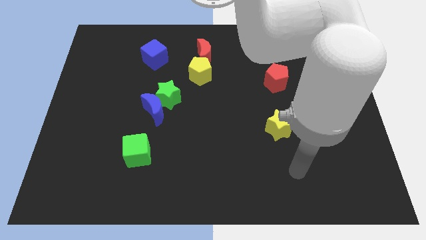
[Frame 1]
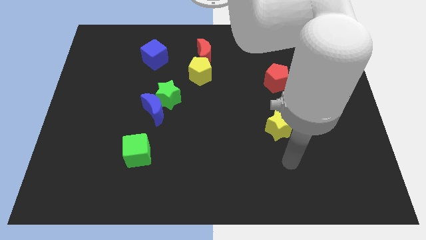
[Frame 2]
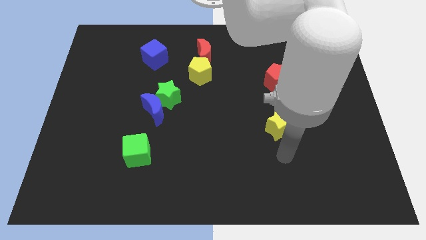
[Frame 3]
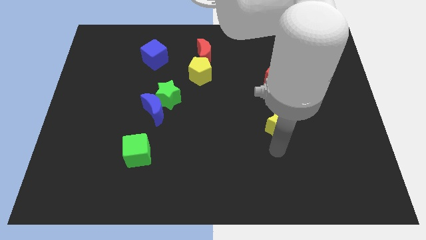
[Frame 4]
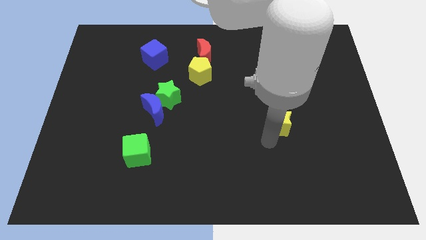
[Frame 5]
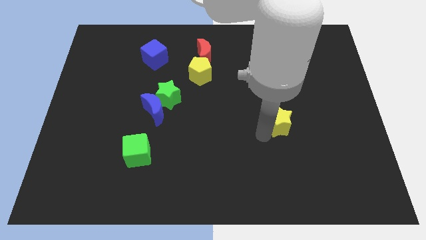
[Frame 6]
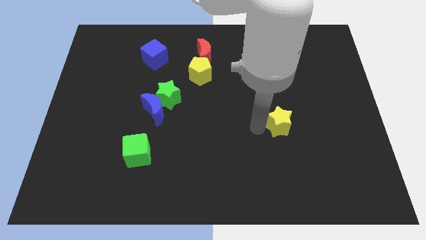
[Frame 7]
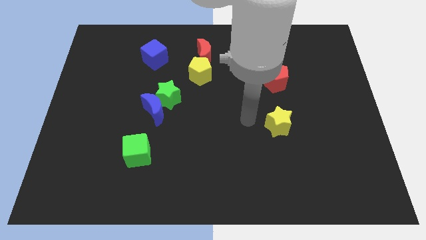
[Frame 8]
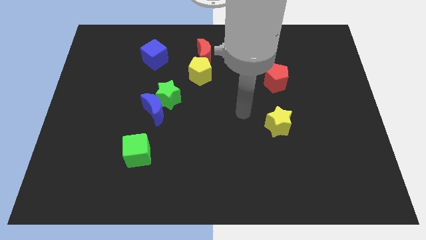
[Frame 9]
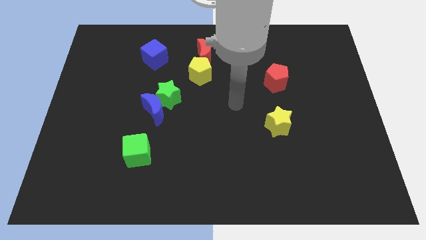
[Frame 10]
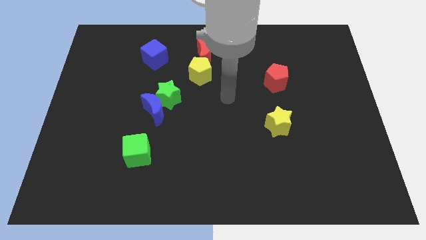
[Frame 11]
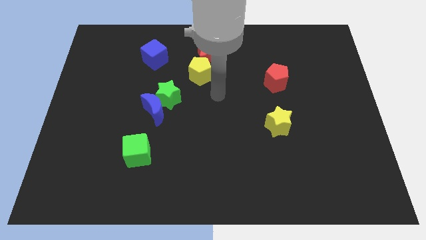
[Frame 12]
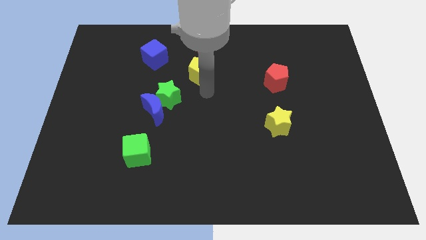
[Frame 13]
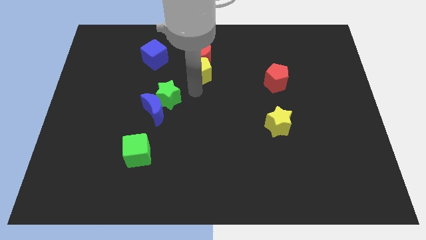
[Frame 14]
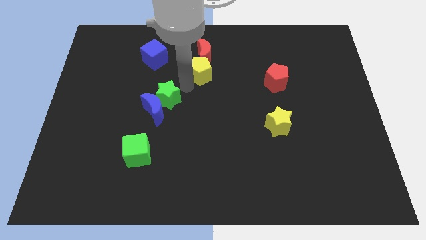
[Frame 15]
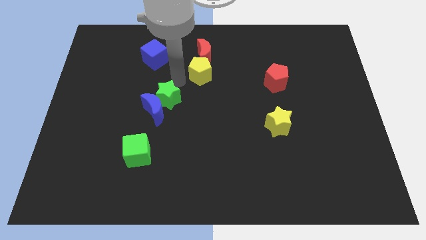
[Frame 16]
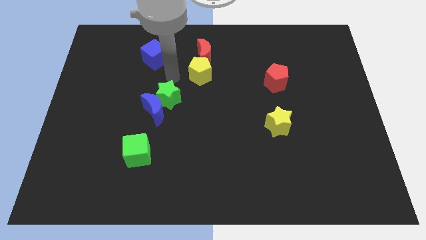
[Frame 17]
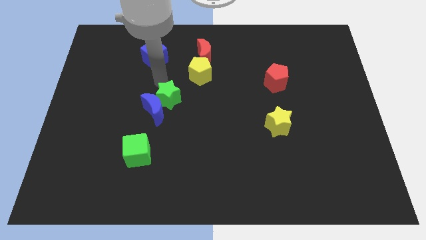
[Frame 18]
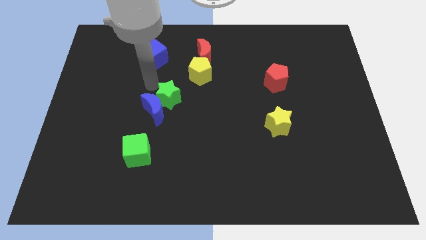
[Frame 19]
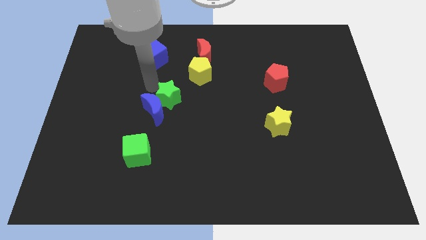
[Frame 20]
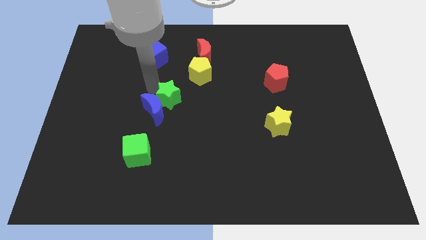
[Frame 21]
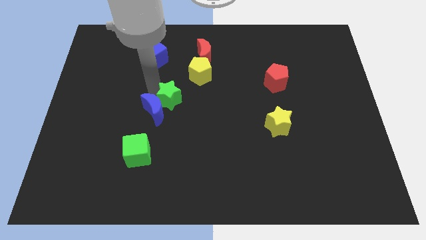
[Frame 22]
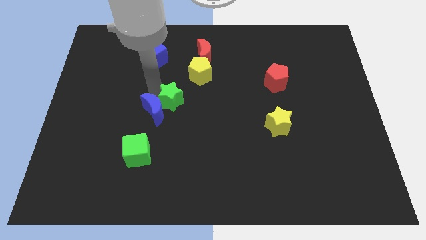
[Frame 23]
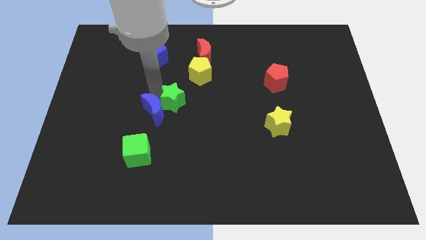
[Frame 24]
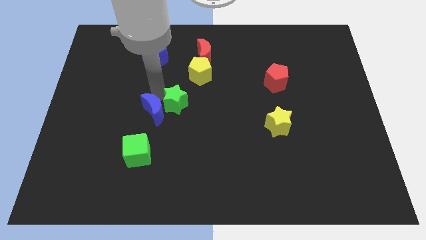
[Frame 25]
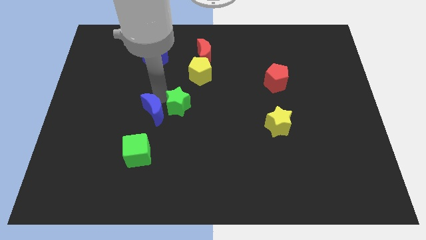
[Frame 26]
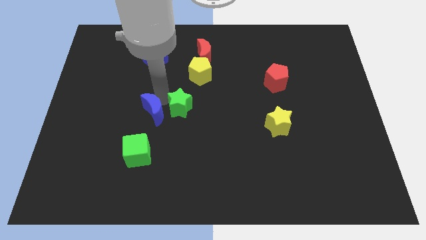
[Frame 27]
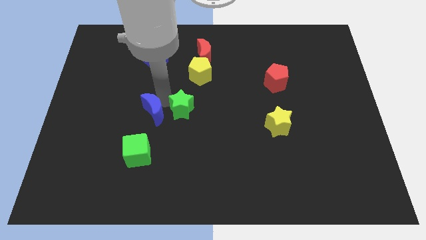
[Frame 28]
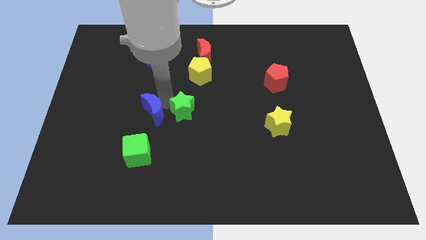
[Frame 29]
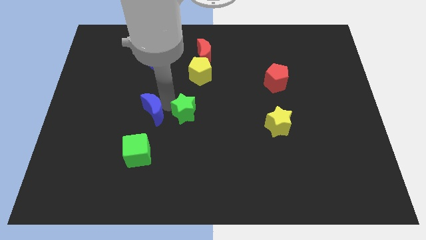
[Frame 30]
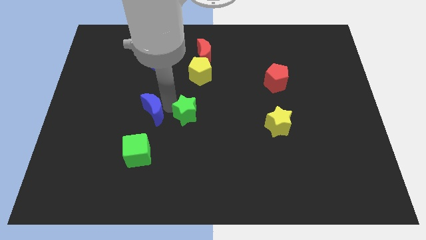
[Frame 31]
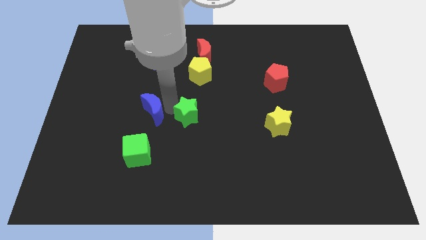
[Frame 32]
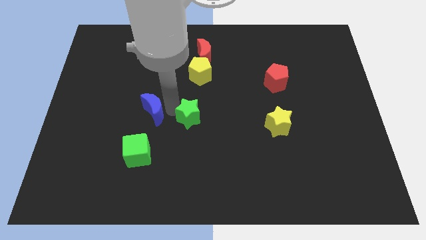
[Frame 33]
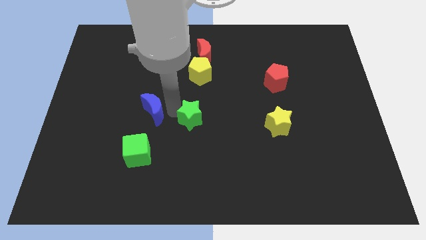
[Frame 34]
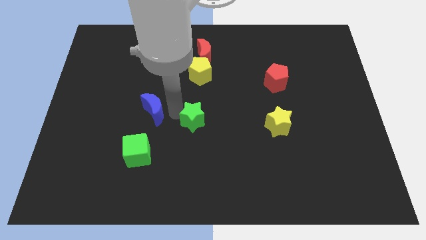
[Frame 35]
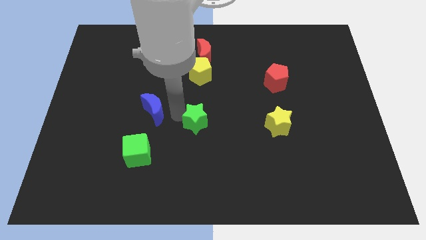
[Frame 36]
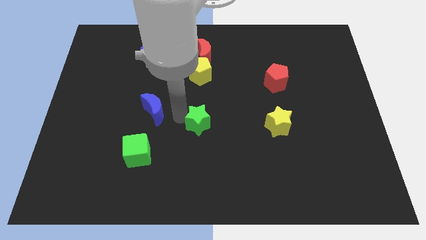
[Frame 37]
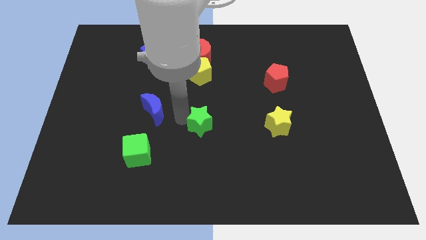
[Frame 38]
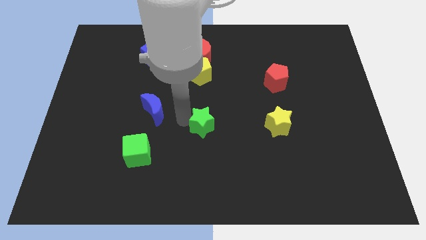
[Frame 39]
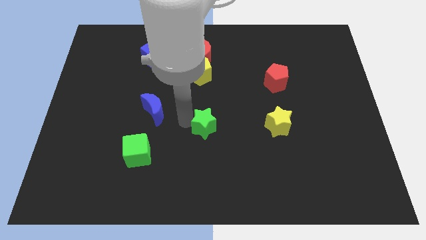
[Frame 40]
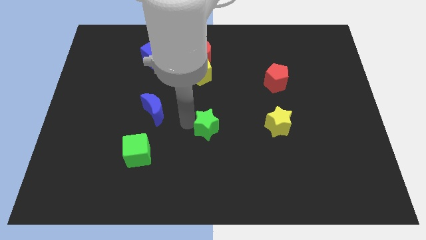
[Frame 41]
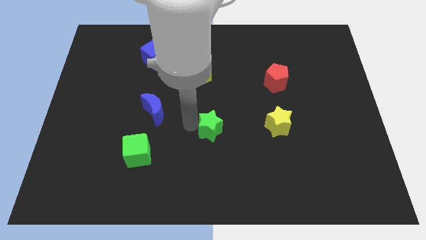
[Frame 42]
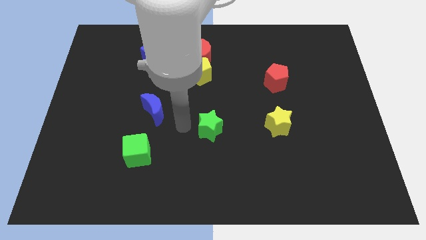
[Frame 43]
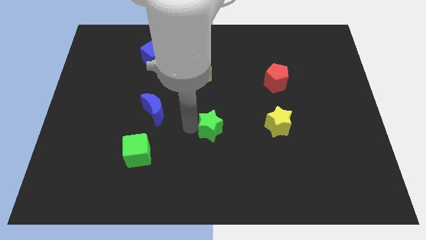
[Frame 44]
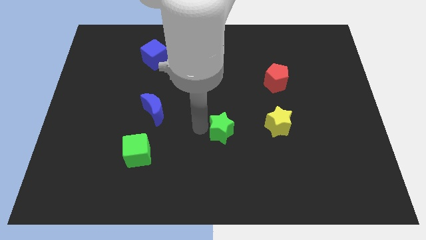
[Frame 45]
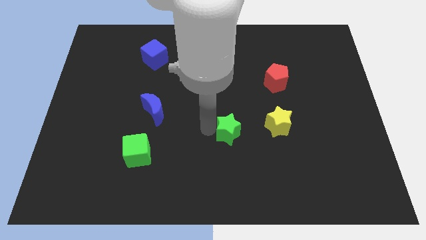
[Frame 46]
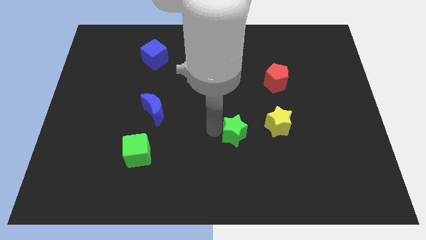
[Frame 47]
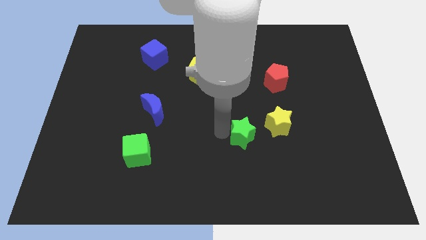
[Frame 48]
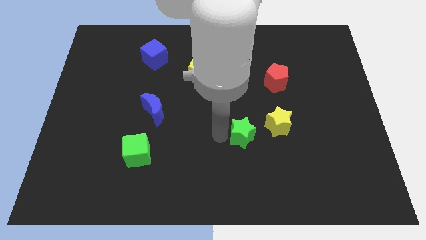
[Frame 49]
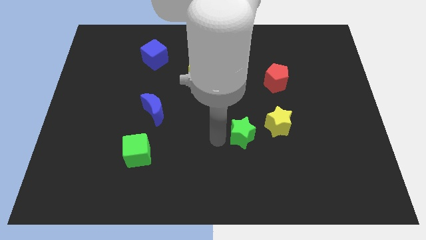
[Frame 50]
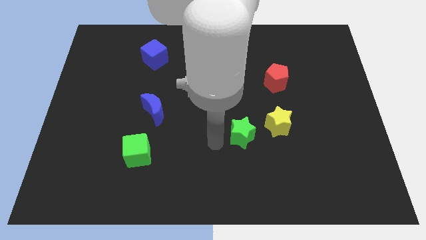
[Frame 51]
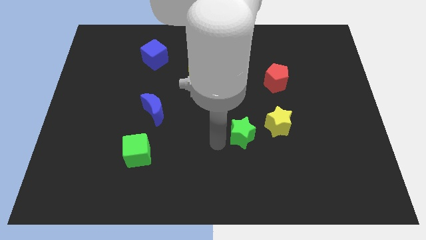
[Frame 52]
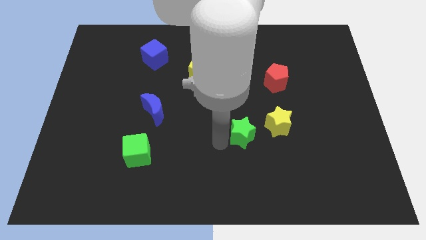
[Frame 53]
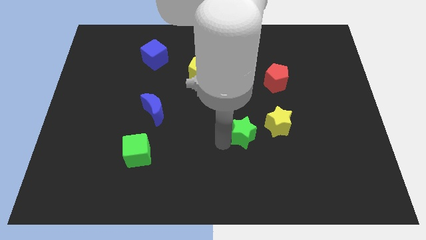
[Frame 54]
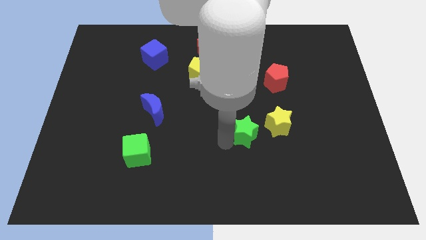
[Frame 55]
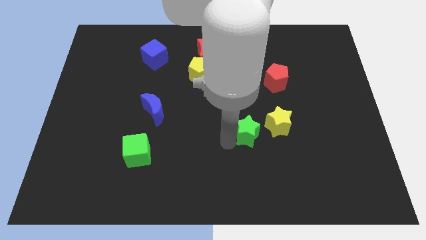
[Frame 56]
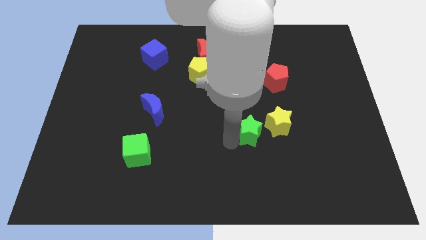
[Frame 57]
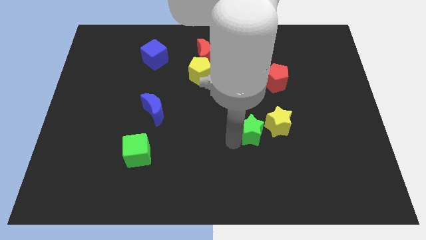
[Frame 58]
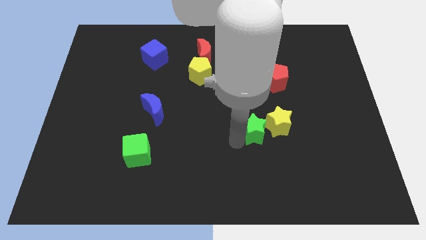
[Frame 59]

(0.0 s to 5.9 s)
push the green star next to the yellow star

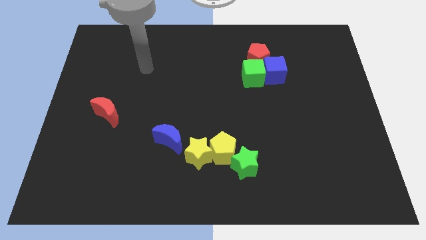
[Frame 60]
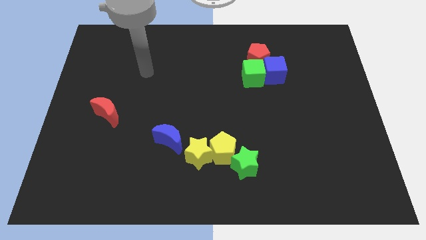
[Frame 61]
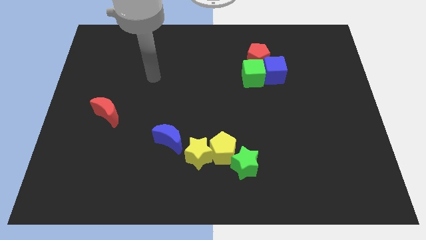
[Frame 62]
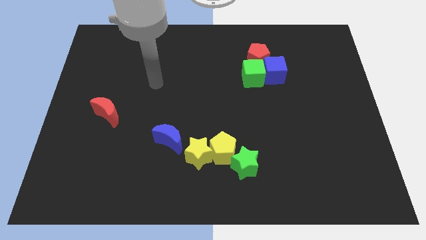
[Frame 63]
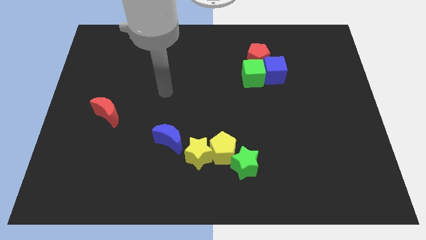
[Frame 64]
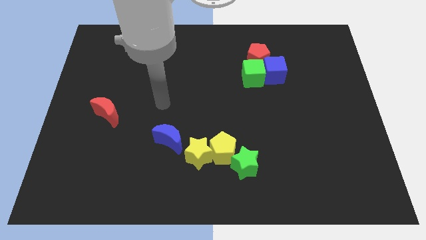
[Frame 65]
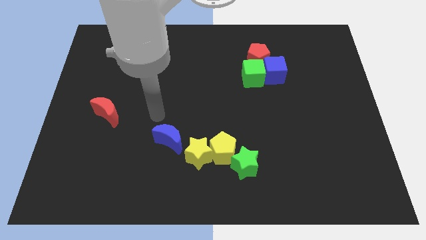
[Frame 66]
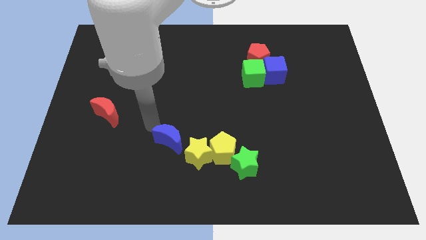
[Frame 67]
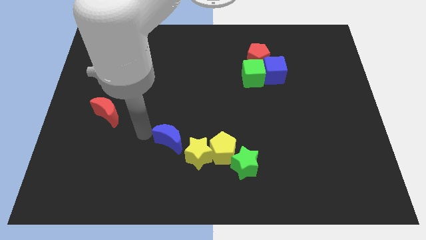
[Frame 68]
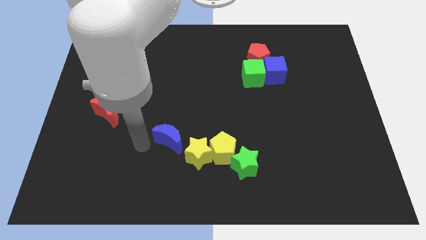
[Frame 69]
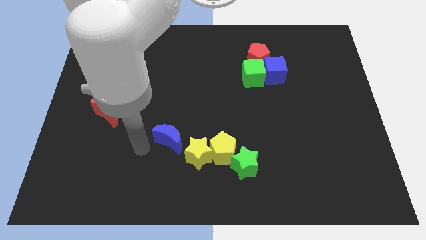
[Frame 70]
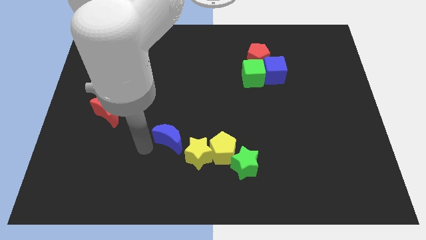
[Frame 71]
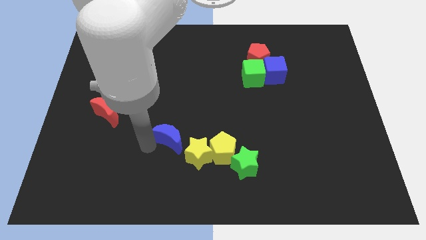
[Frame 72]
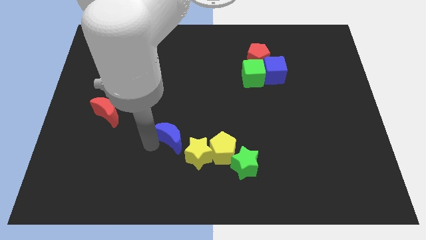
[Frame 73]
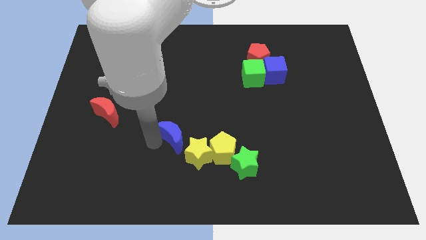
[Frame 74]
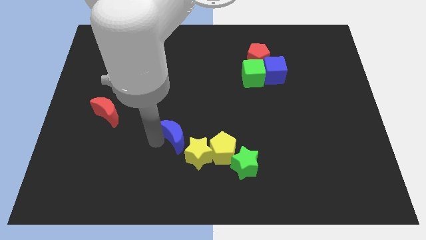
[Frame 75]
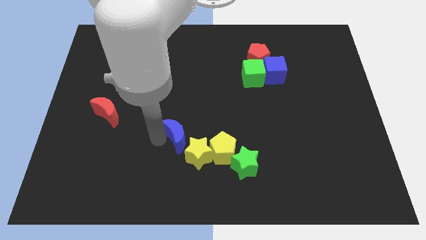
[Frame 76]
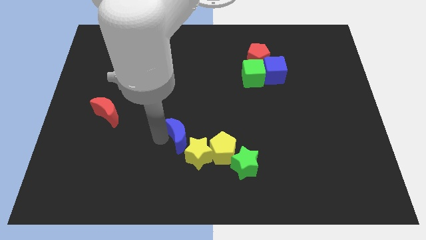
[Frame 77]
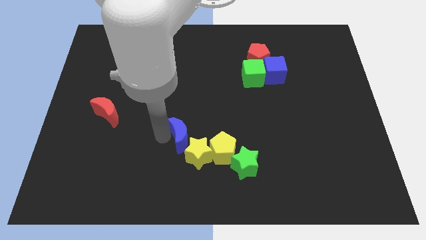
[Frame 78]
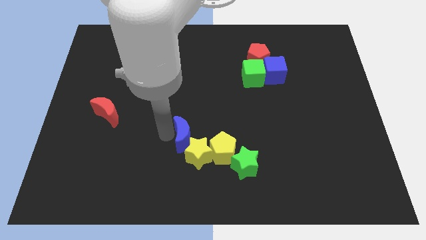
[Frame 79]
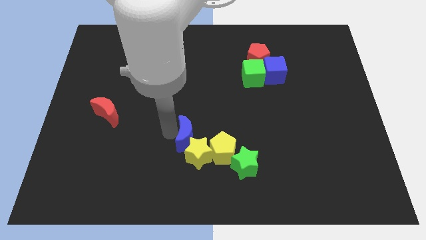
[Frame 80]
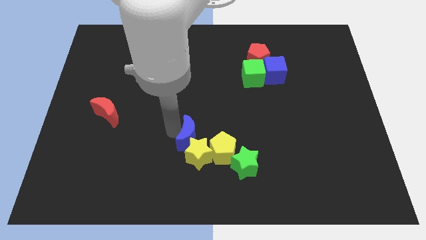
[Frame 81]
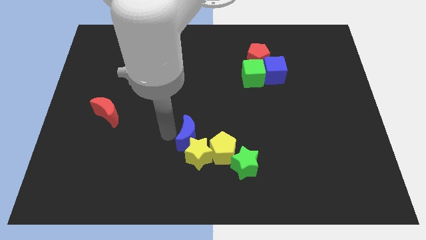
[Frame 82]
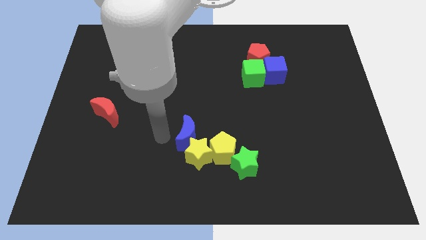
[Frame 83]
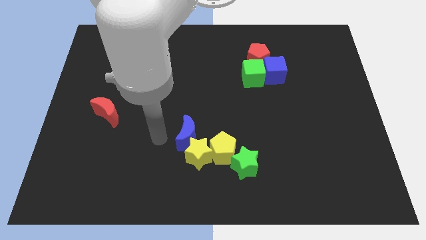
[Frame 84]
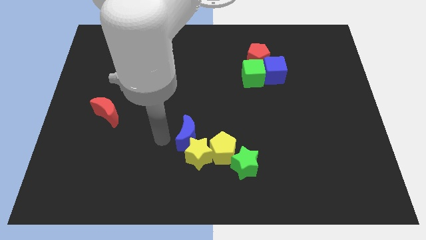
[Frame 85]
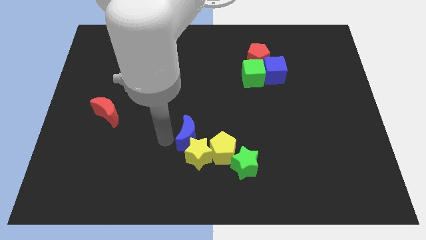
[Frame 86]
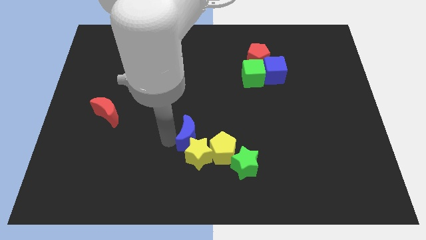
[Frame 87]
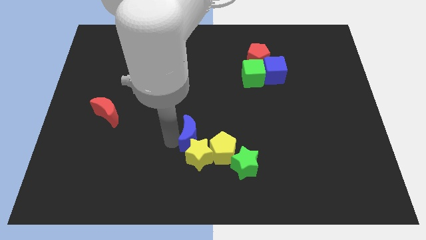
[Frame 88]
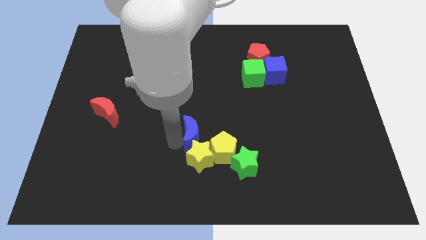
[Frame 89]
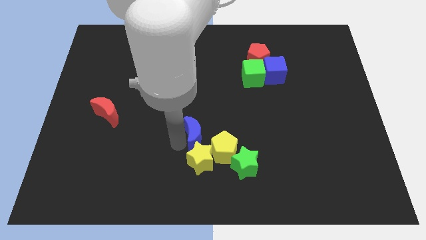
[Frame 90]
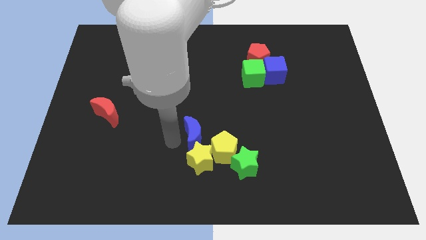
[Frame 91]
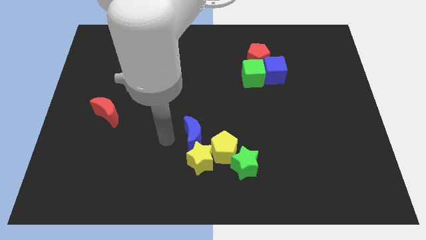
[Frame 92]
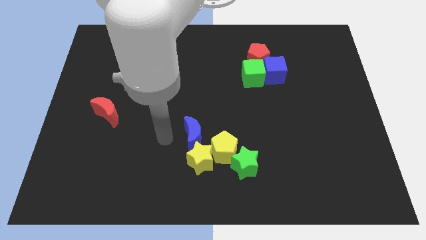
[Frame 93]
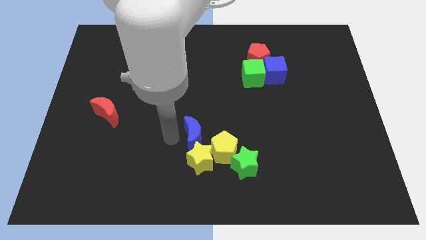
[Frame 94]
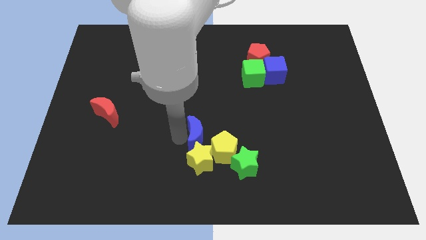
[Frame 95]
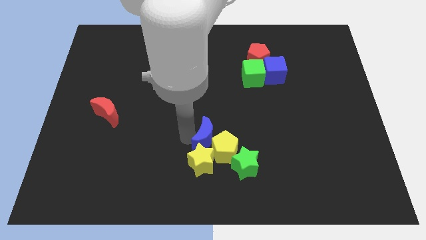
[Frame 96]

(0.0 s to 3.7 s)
put the blue moon to the yellow pentagon
